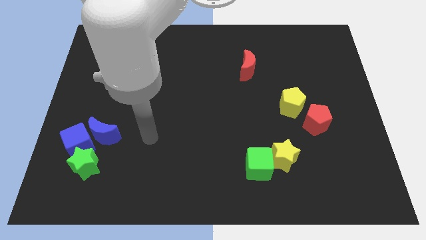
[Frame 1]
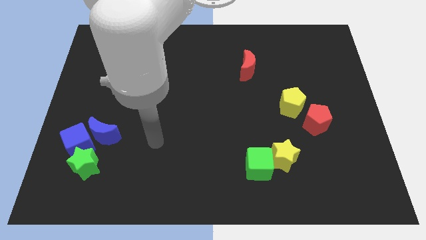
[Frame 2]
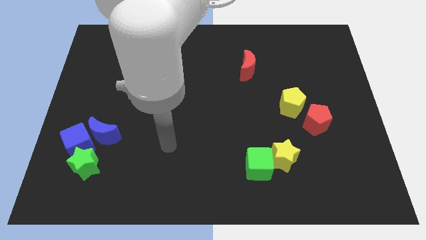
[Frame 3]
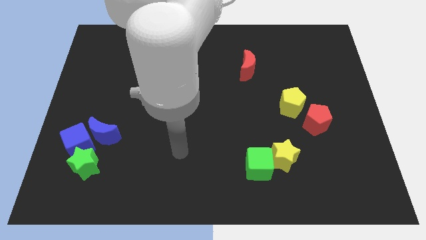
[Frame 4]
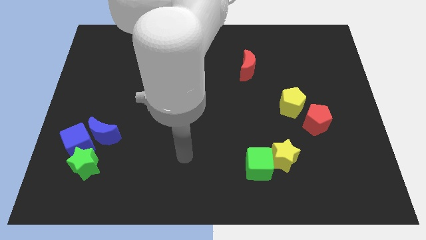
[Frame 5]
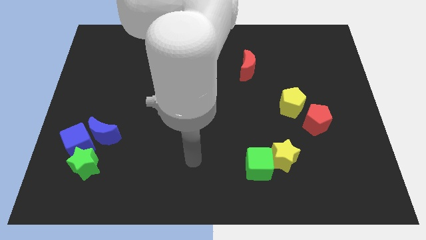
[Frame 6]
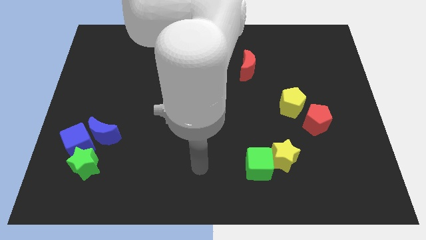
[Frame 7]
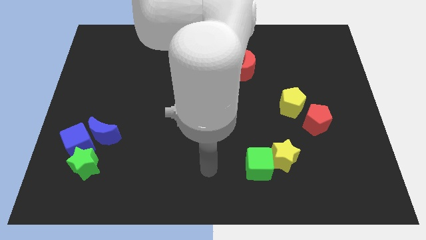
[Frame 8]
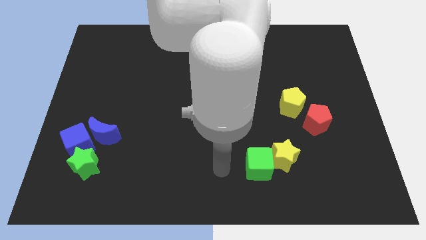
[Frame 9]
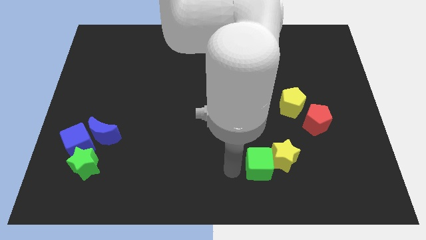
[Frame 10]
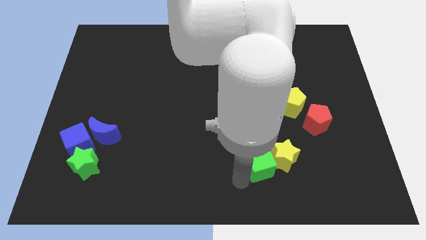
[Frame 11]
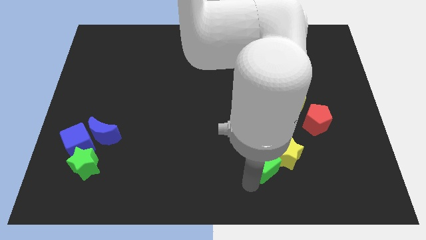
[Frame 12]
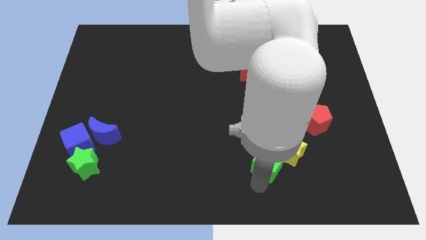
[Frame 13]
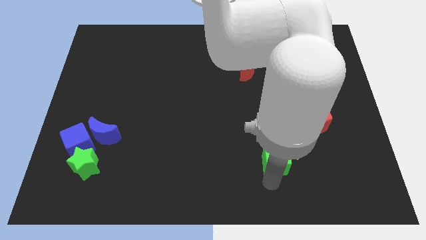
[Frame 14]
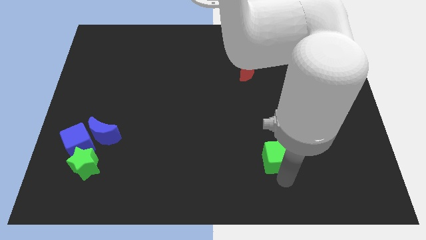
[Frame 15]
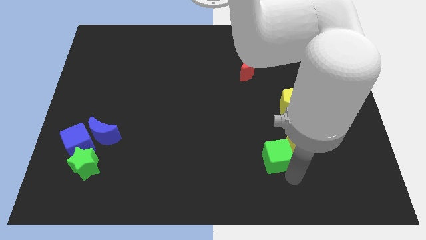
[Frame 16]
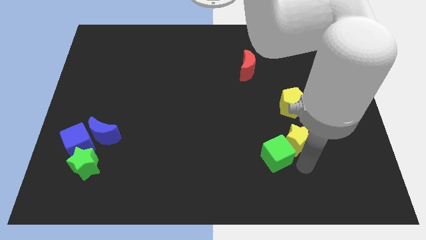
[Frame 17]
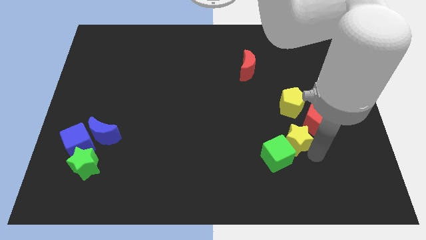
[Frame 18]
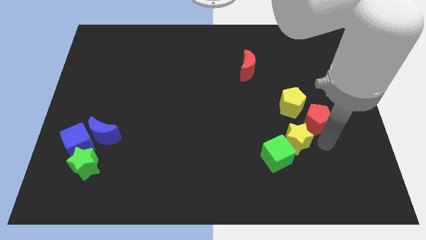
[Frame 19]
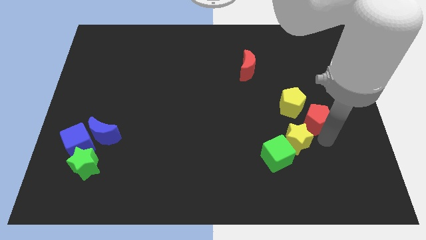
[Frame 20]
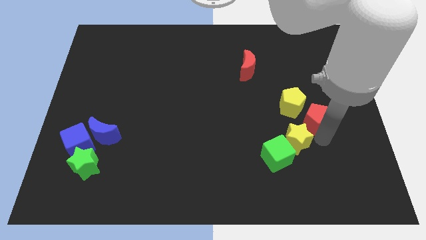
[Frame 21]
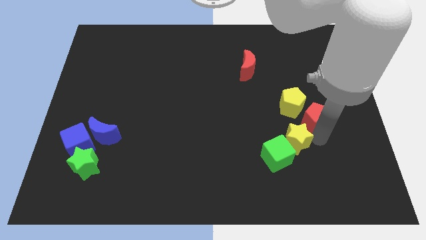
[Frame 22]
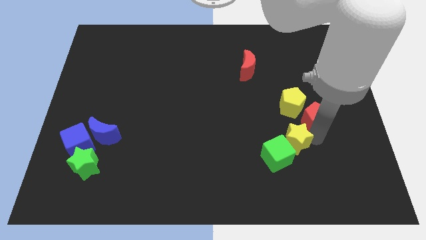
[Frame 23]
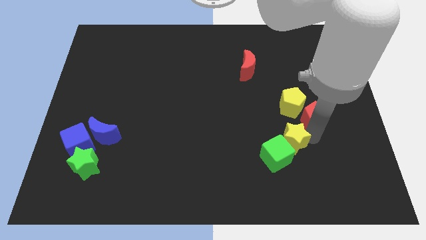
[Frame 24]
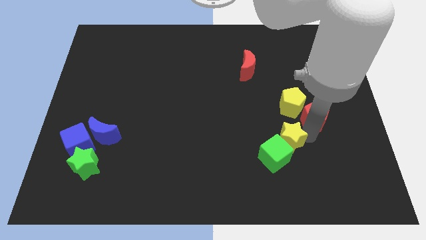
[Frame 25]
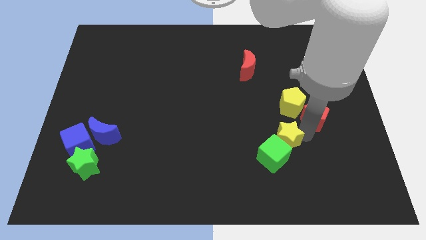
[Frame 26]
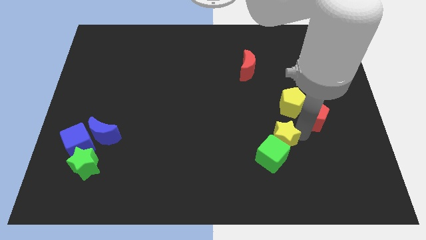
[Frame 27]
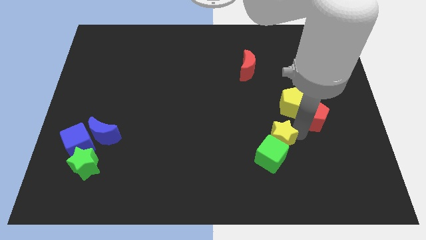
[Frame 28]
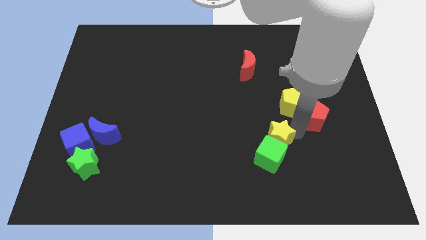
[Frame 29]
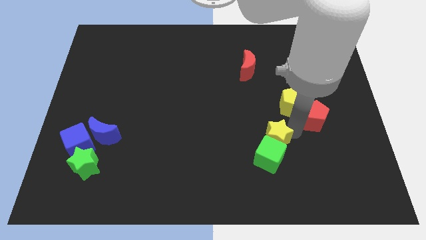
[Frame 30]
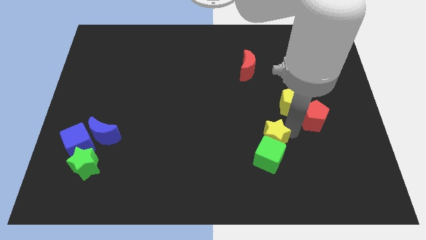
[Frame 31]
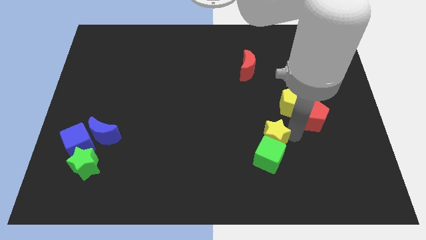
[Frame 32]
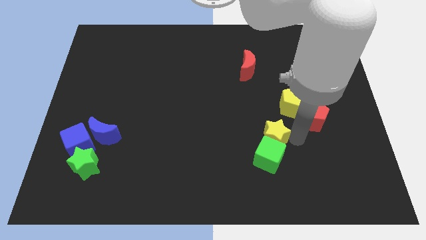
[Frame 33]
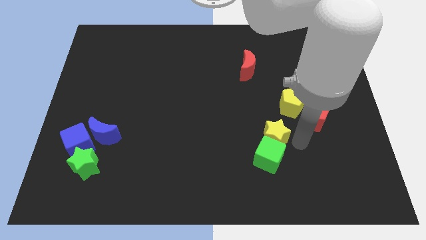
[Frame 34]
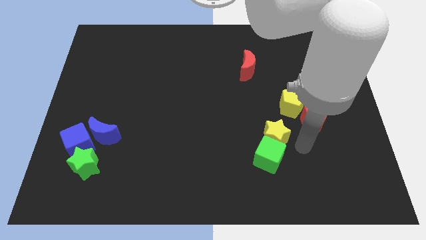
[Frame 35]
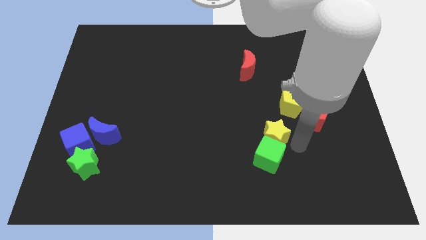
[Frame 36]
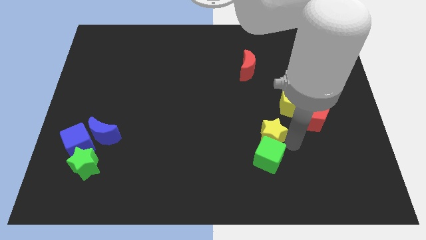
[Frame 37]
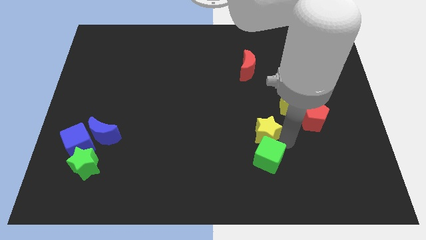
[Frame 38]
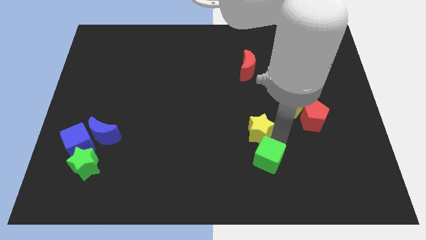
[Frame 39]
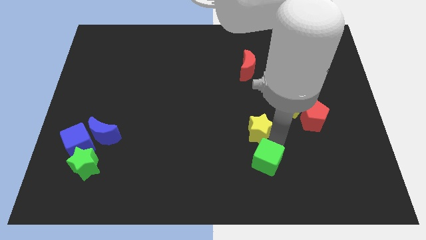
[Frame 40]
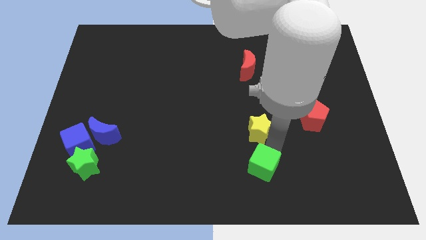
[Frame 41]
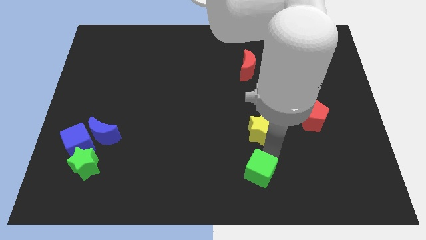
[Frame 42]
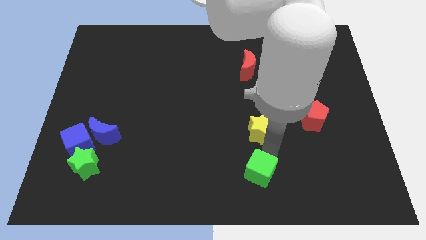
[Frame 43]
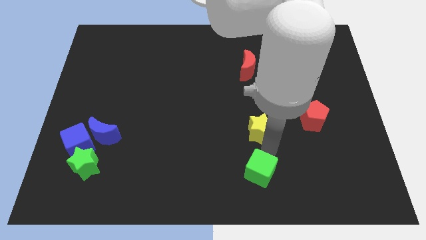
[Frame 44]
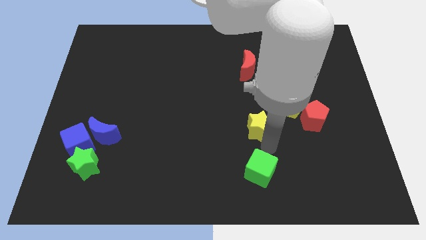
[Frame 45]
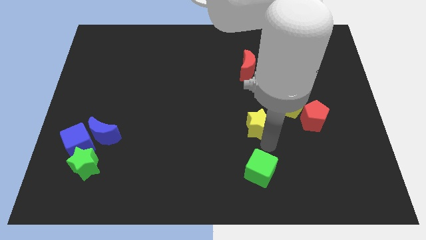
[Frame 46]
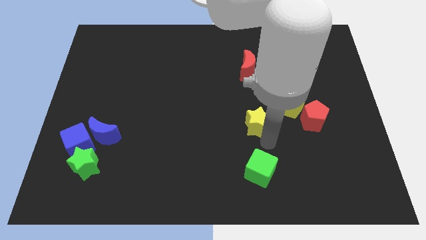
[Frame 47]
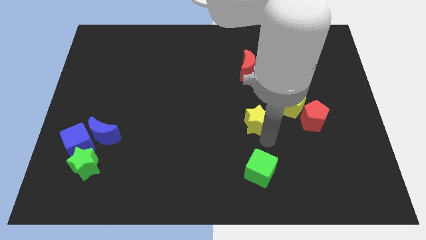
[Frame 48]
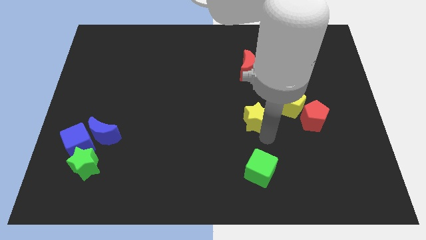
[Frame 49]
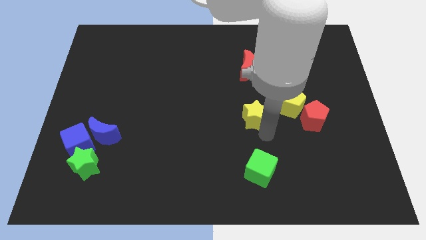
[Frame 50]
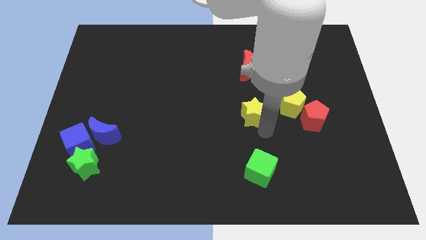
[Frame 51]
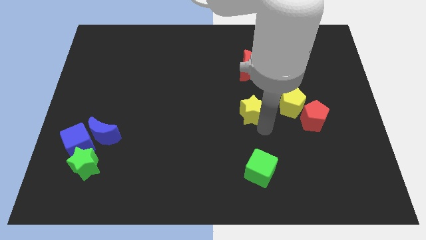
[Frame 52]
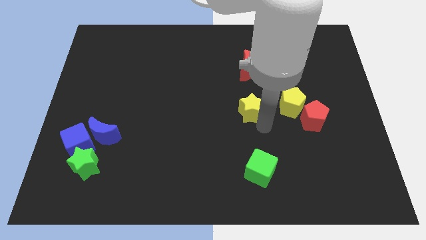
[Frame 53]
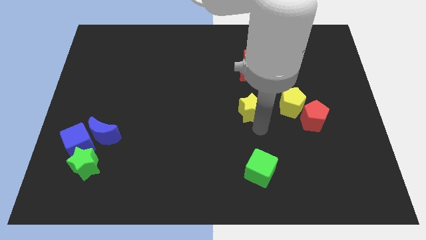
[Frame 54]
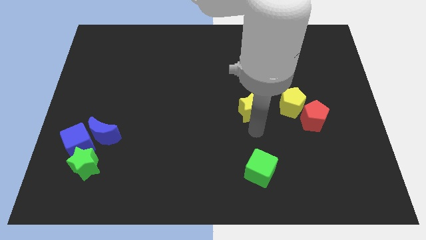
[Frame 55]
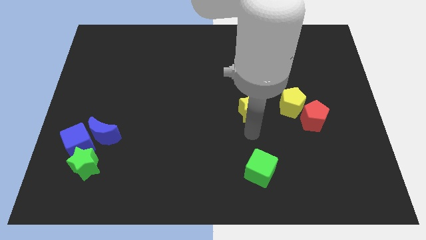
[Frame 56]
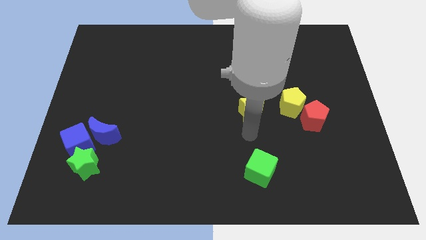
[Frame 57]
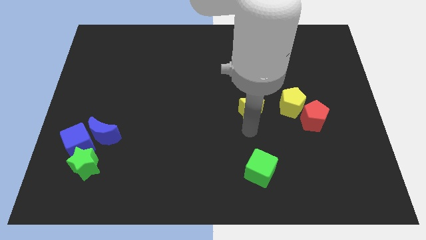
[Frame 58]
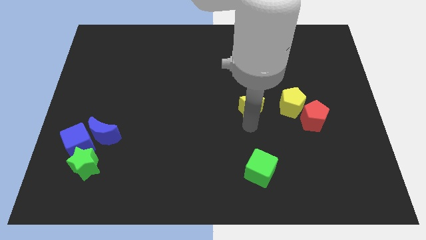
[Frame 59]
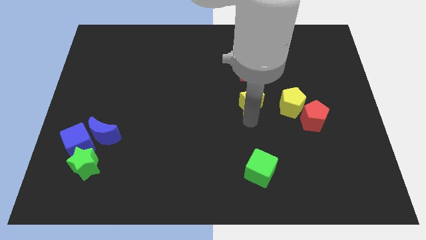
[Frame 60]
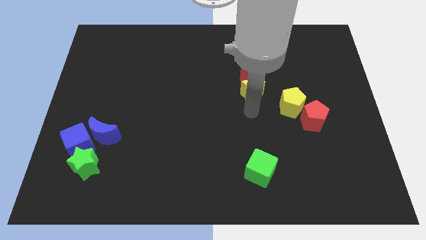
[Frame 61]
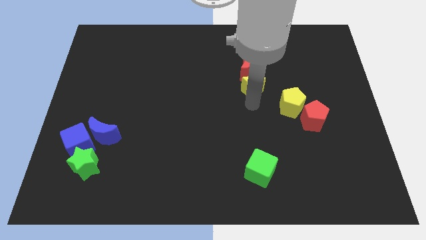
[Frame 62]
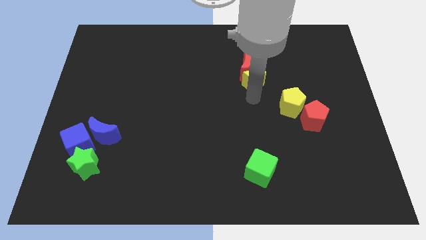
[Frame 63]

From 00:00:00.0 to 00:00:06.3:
slide the yellow star to the red moon
